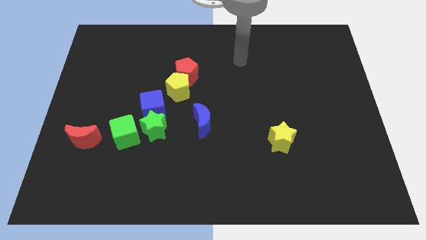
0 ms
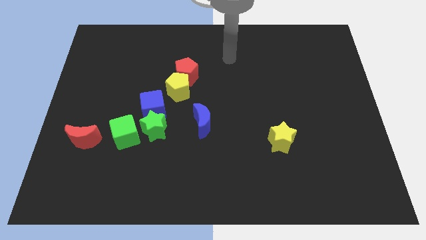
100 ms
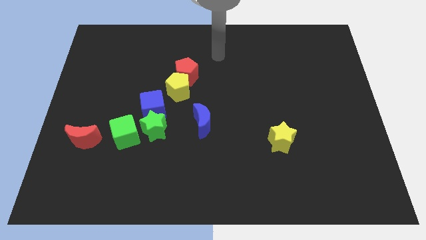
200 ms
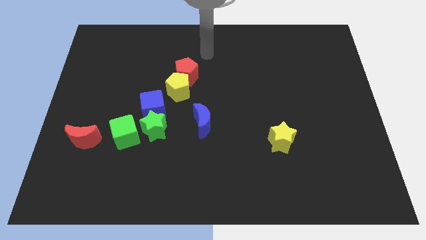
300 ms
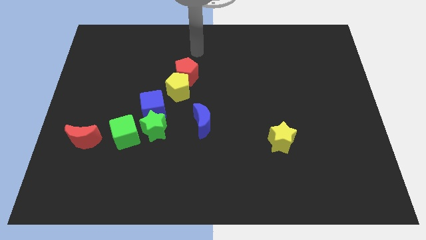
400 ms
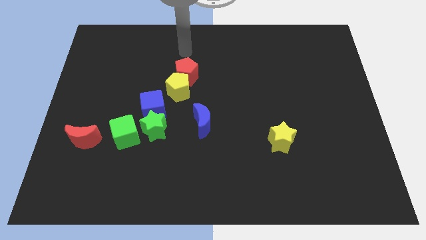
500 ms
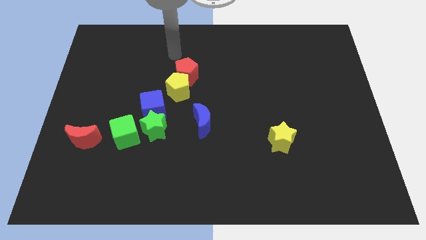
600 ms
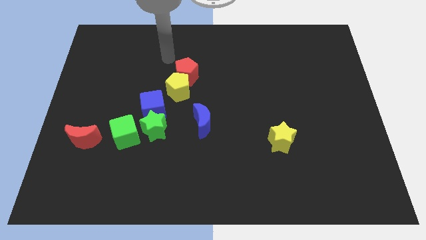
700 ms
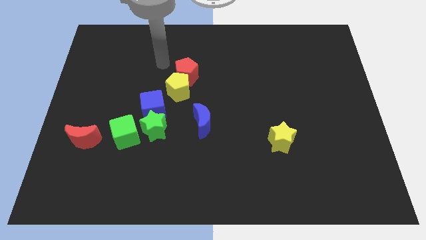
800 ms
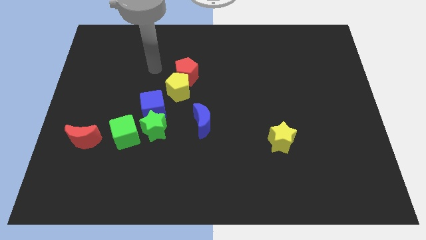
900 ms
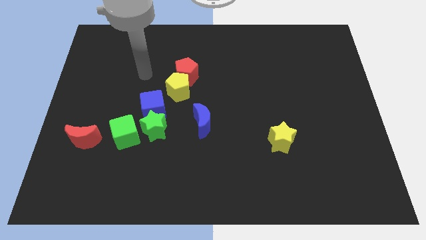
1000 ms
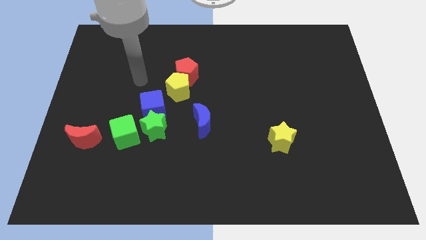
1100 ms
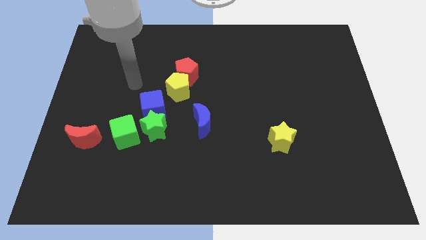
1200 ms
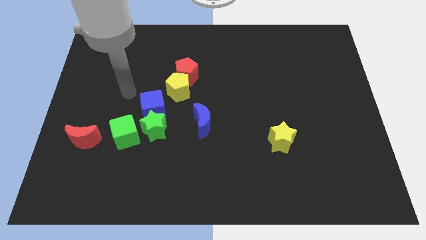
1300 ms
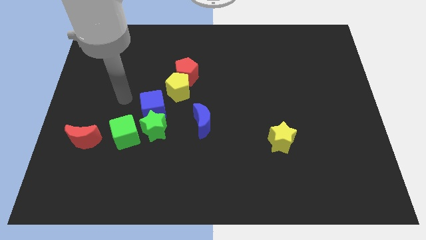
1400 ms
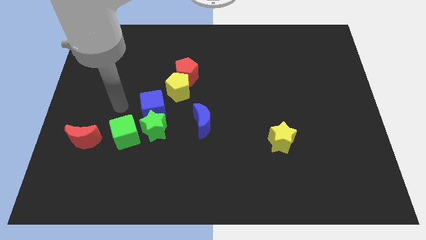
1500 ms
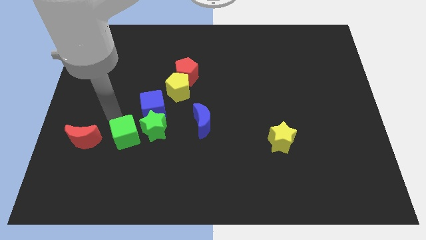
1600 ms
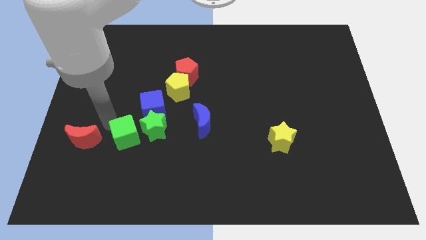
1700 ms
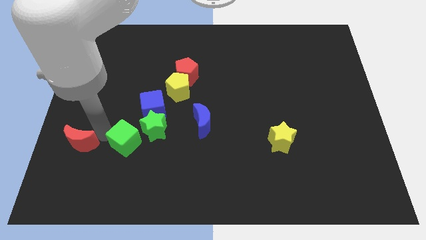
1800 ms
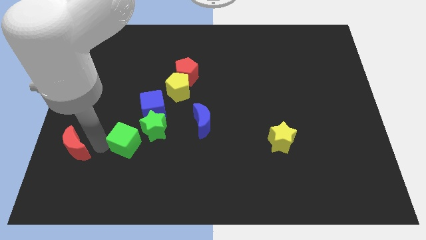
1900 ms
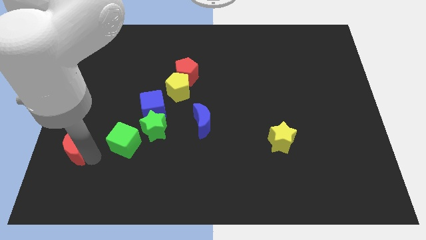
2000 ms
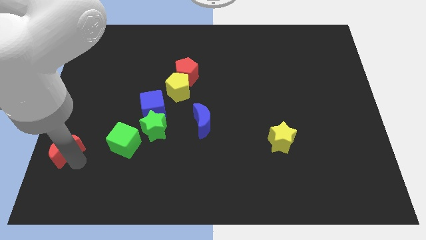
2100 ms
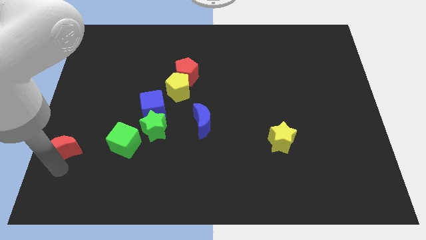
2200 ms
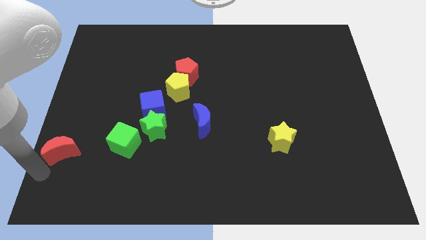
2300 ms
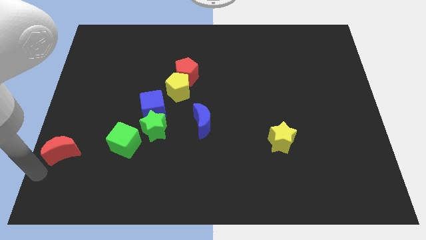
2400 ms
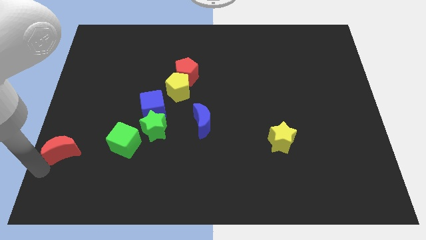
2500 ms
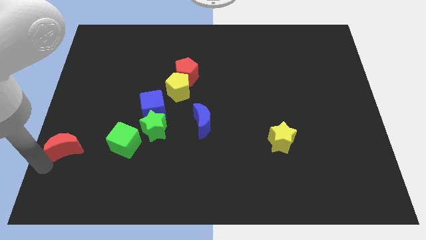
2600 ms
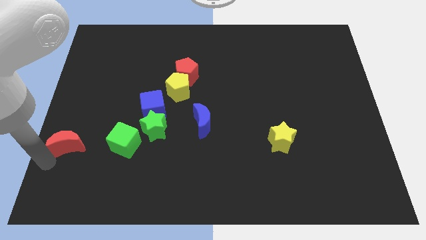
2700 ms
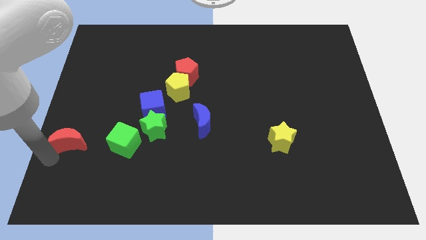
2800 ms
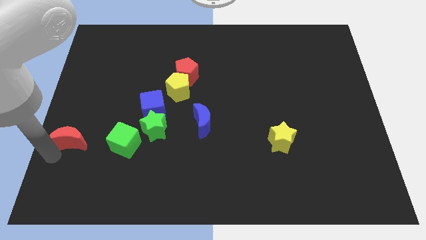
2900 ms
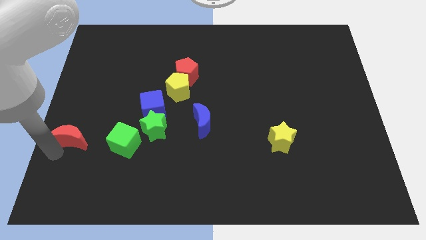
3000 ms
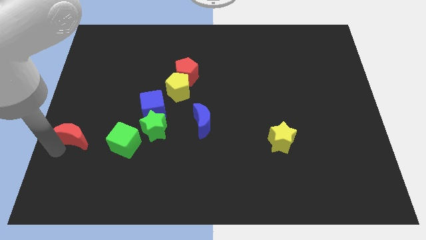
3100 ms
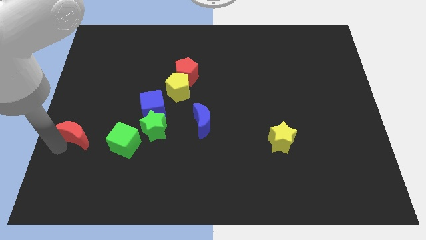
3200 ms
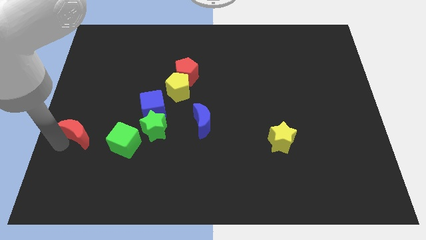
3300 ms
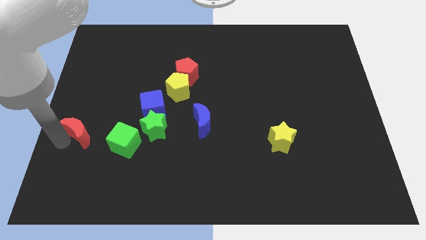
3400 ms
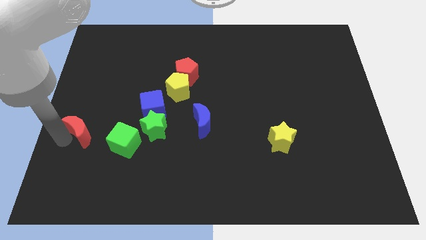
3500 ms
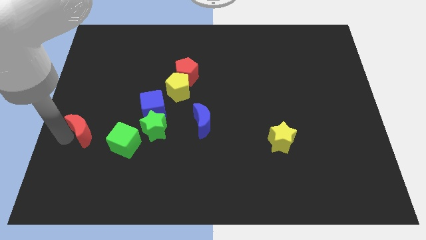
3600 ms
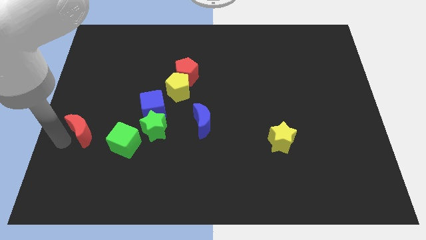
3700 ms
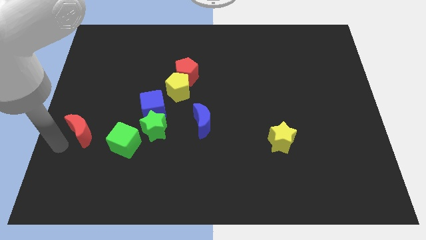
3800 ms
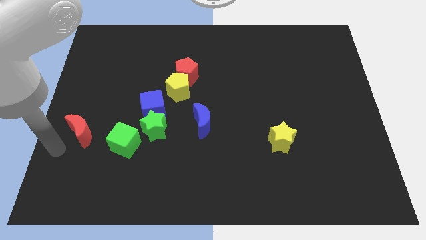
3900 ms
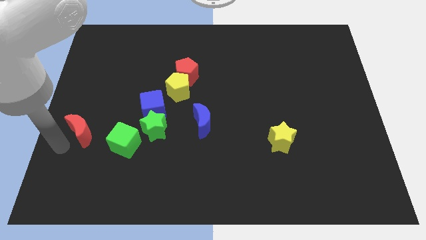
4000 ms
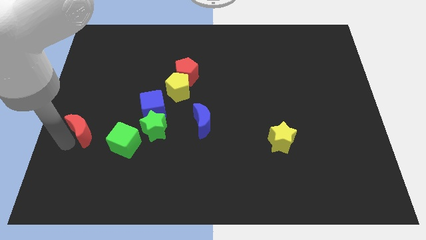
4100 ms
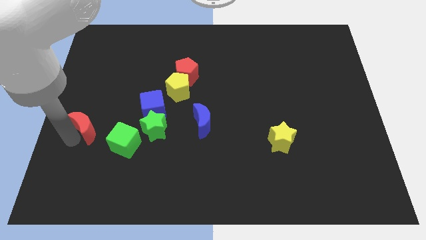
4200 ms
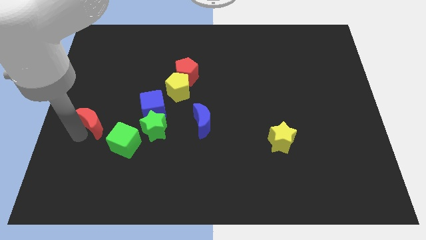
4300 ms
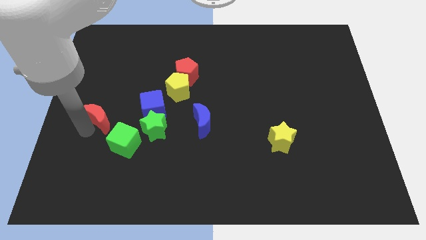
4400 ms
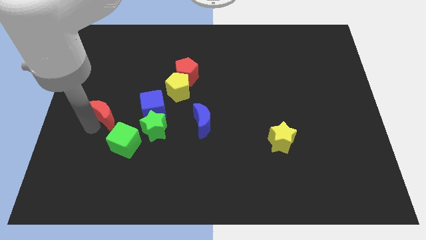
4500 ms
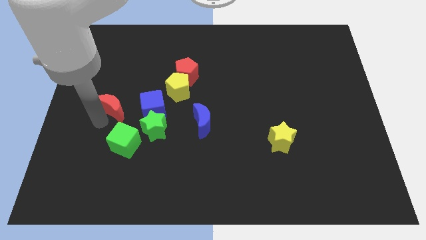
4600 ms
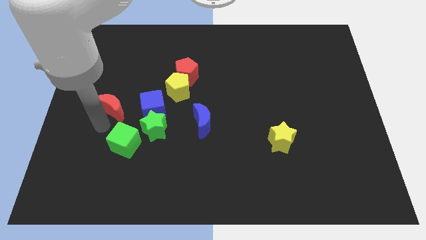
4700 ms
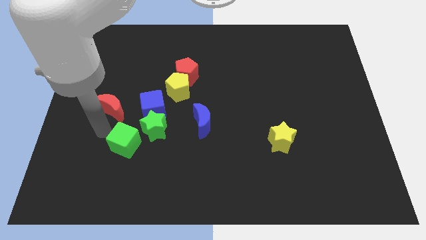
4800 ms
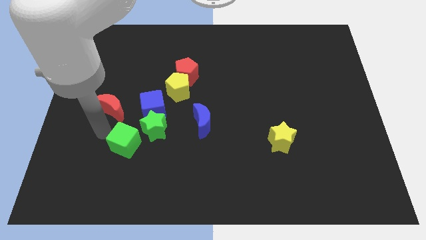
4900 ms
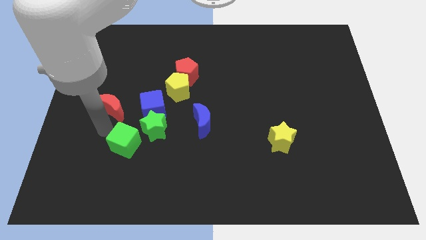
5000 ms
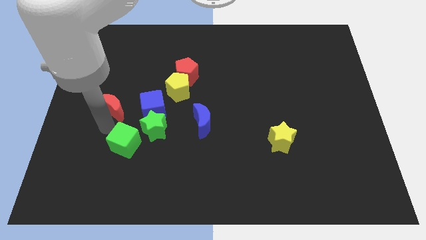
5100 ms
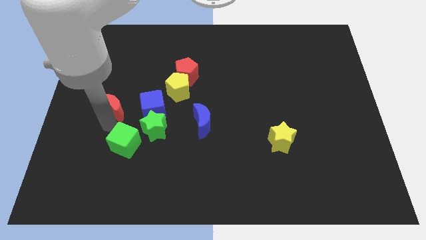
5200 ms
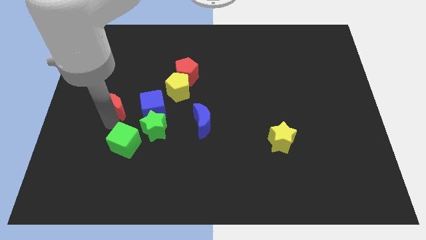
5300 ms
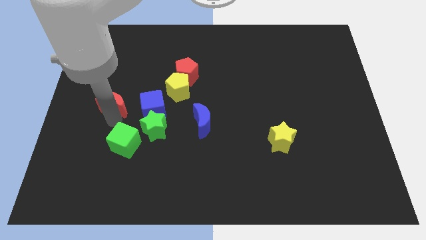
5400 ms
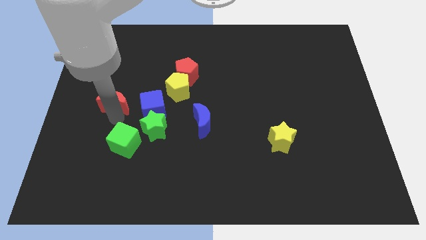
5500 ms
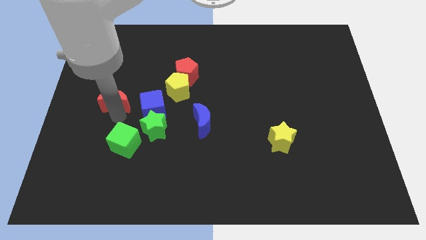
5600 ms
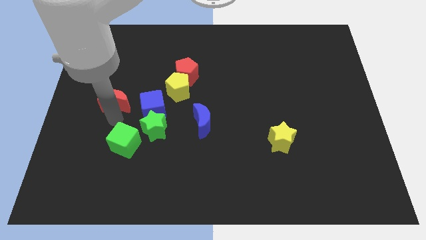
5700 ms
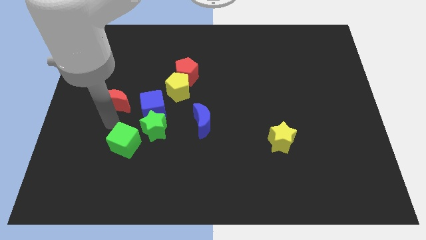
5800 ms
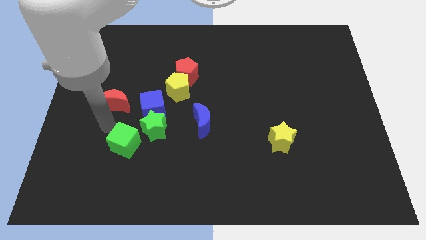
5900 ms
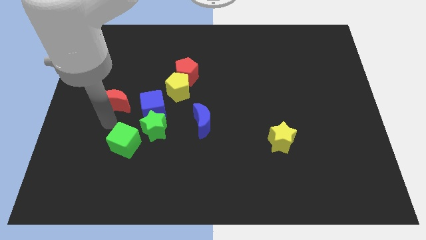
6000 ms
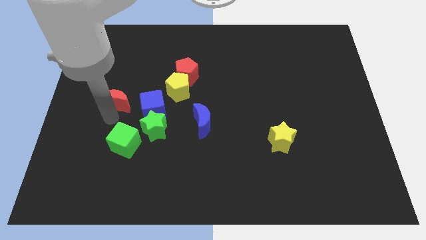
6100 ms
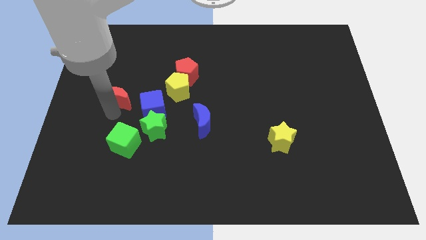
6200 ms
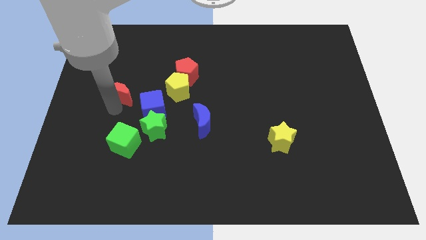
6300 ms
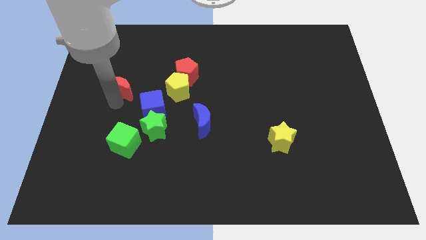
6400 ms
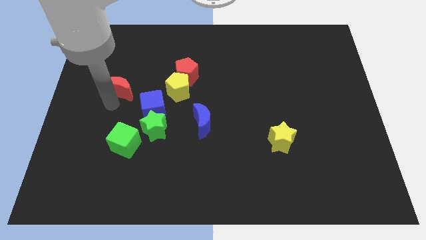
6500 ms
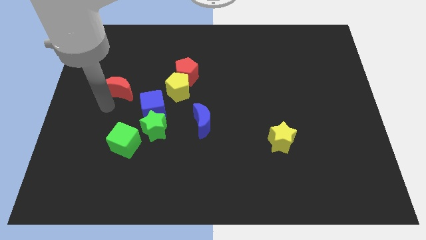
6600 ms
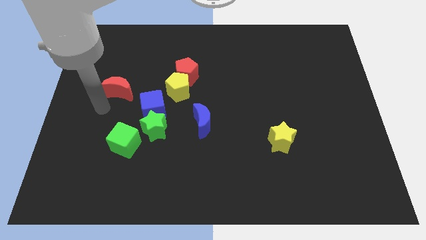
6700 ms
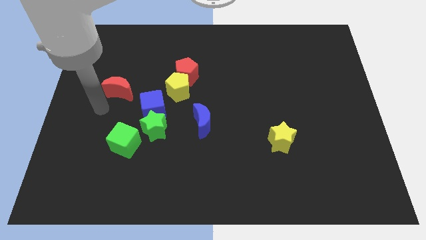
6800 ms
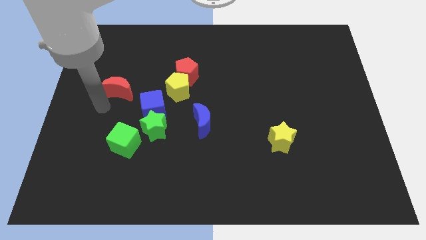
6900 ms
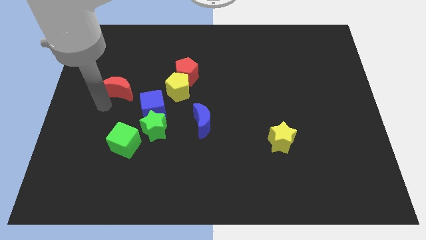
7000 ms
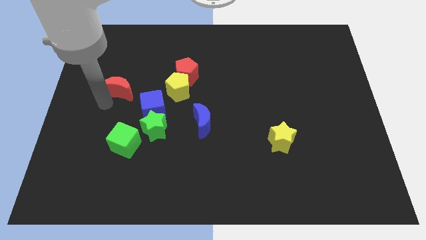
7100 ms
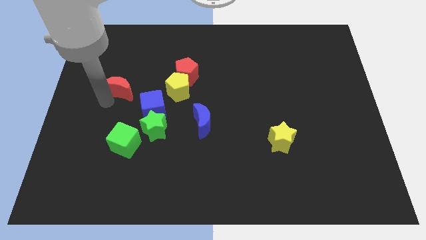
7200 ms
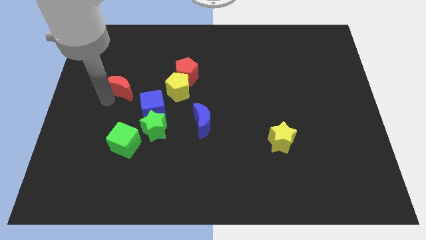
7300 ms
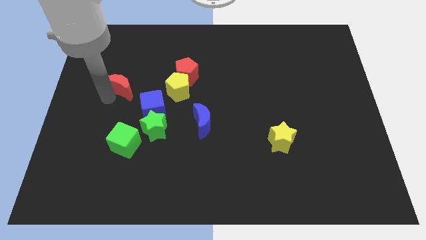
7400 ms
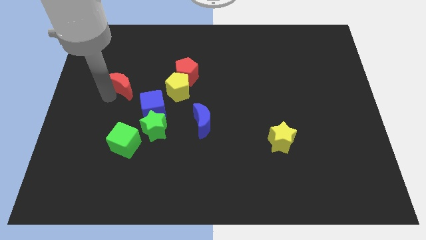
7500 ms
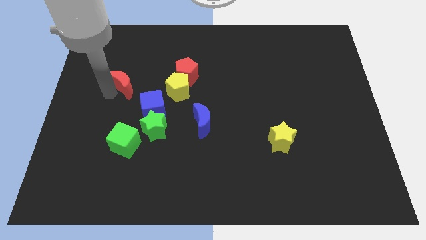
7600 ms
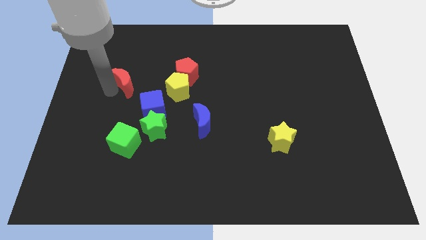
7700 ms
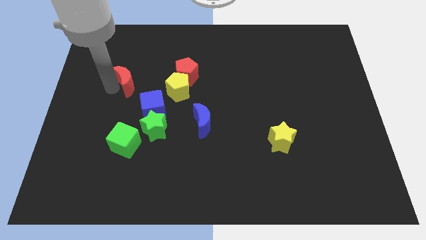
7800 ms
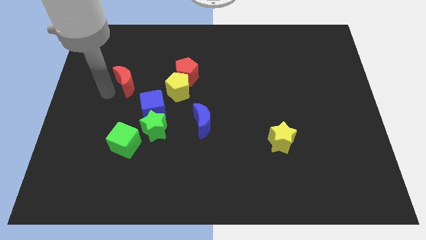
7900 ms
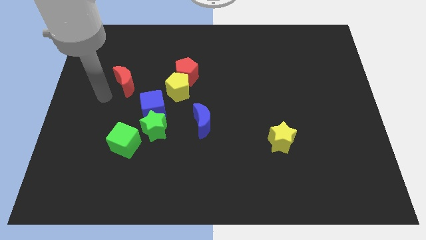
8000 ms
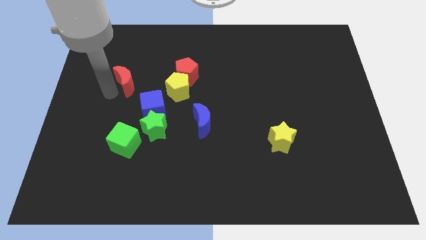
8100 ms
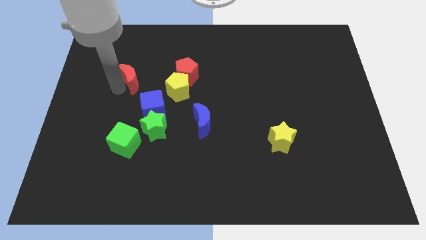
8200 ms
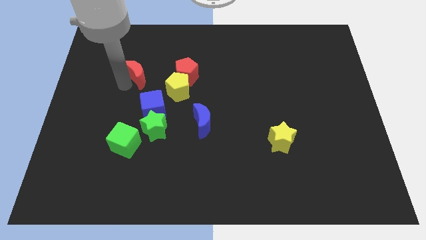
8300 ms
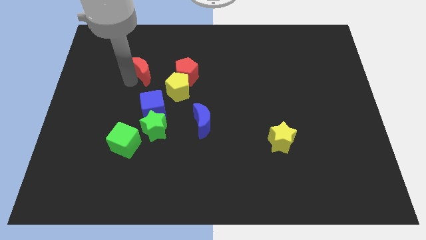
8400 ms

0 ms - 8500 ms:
slide the red moon upwards and to the right diagonally

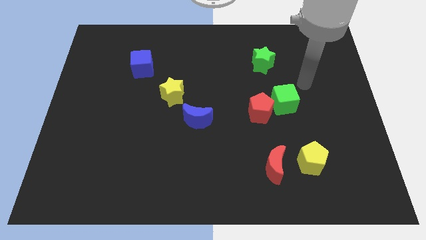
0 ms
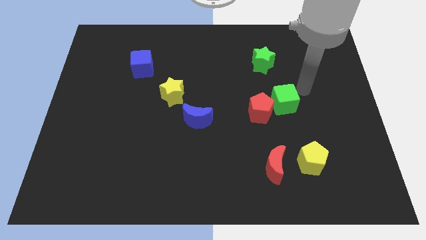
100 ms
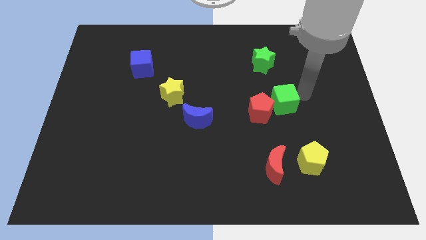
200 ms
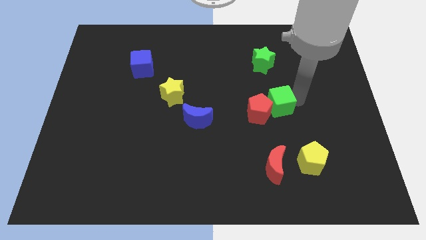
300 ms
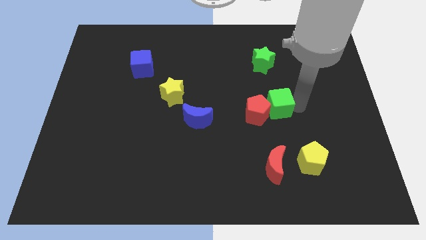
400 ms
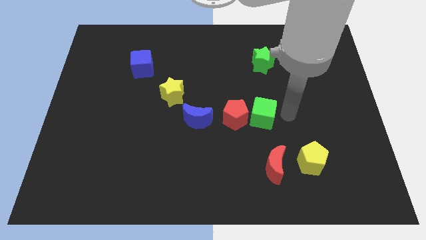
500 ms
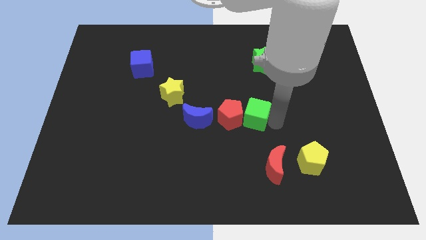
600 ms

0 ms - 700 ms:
slide the red pentagon a bit left
